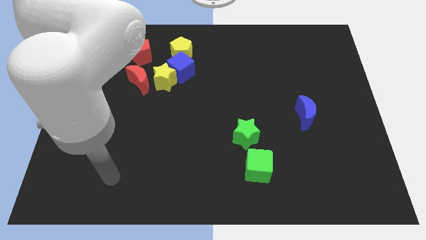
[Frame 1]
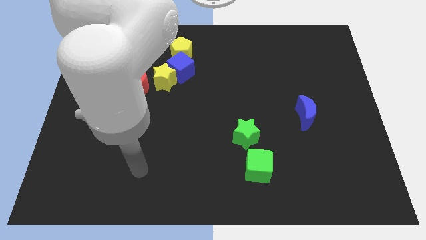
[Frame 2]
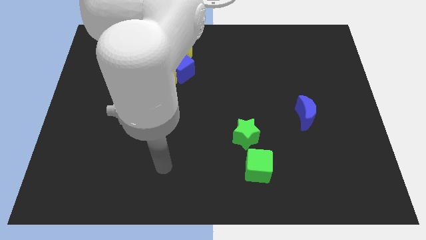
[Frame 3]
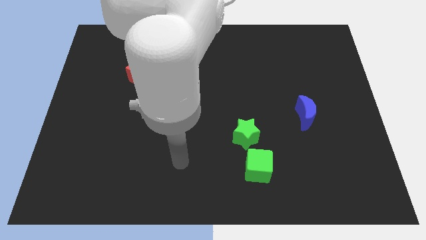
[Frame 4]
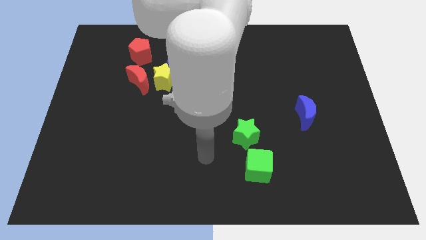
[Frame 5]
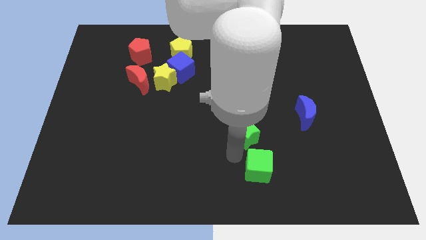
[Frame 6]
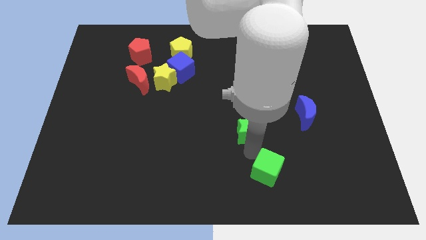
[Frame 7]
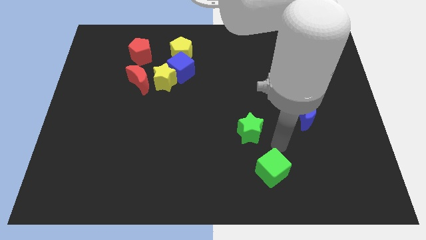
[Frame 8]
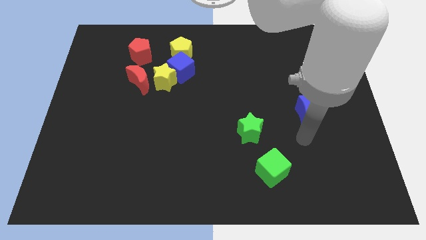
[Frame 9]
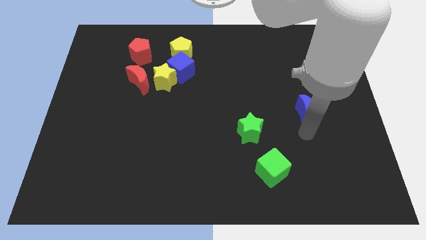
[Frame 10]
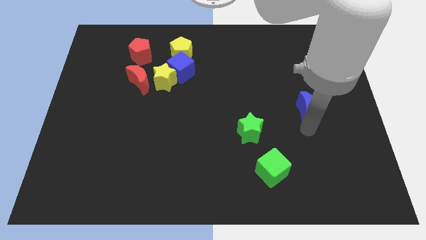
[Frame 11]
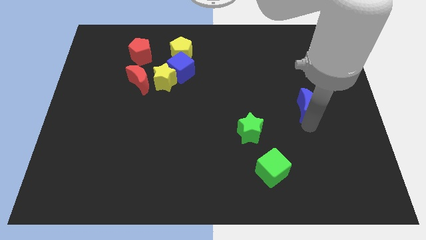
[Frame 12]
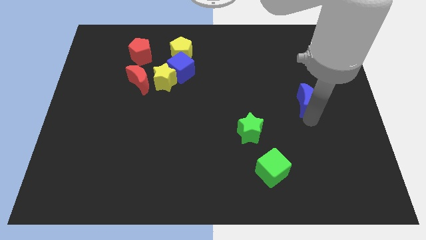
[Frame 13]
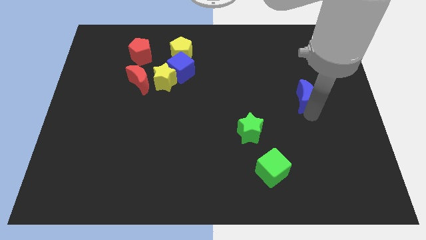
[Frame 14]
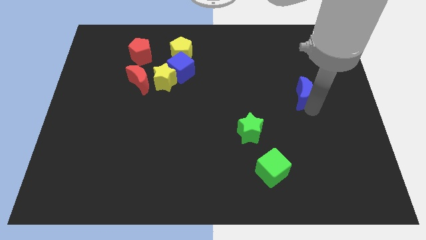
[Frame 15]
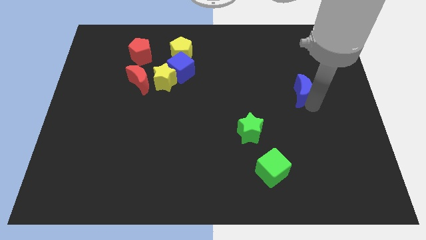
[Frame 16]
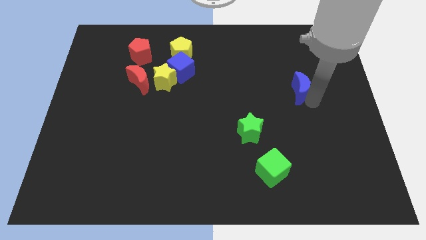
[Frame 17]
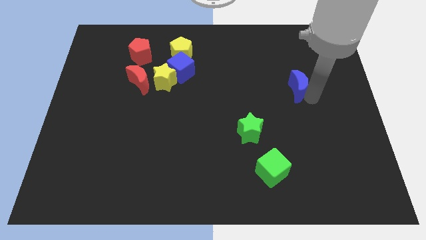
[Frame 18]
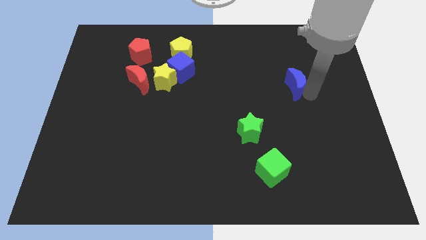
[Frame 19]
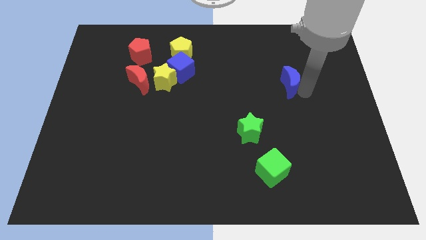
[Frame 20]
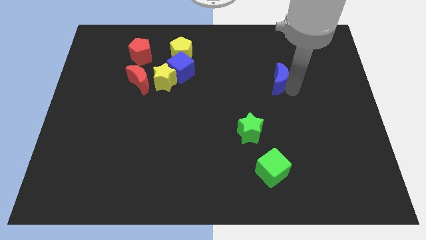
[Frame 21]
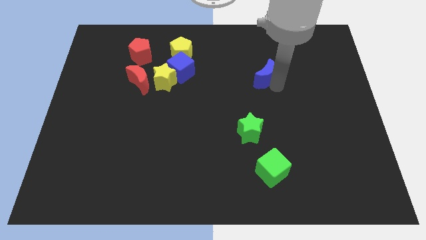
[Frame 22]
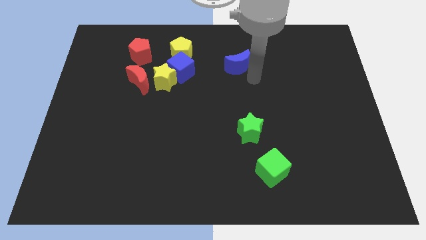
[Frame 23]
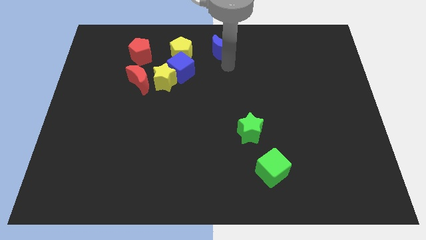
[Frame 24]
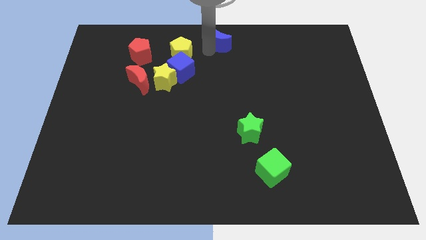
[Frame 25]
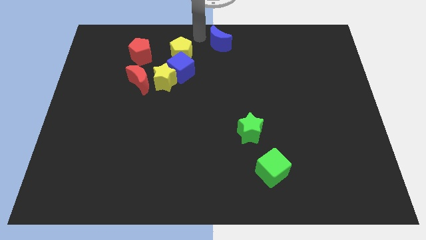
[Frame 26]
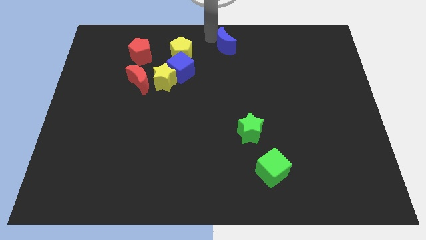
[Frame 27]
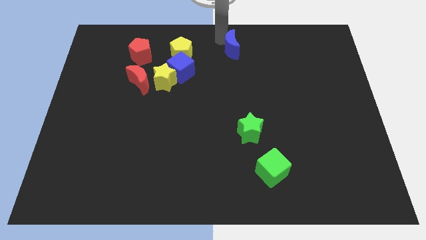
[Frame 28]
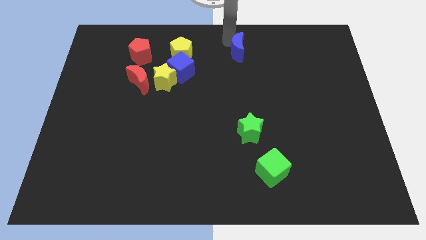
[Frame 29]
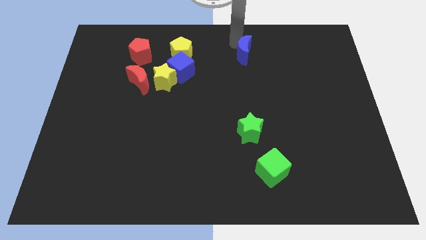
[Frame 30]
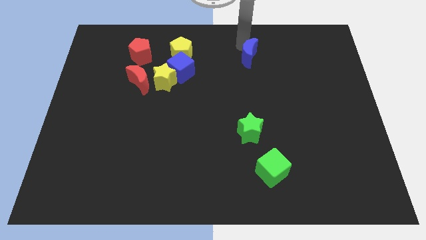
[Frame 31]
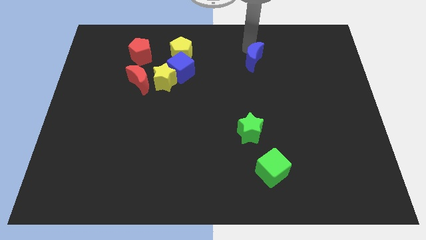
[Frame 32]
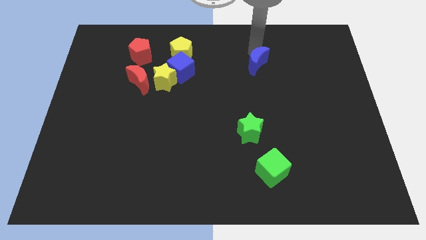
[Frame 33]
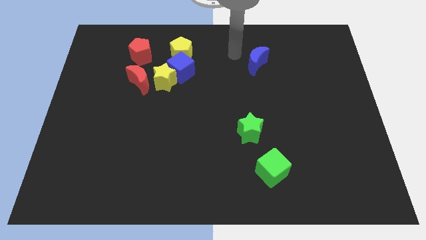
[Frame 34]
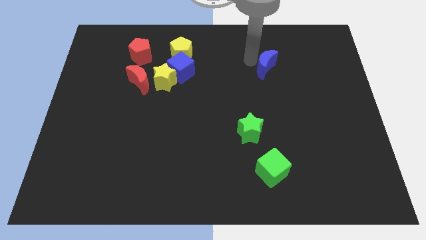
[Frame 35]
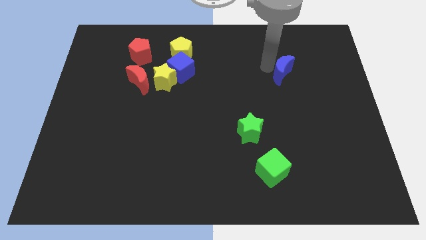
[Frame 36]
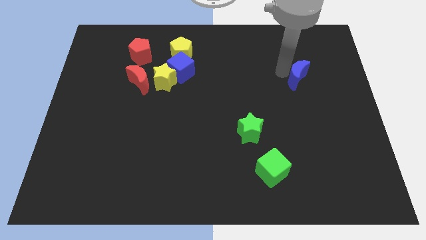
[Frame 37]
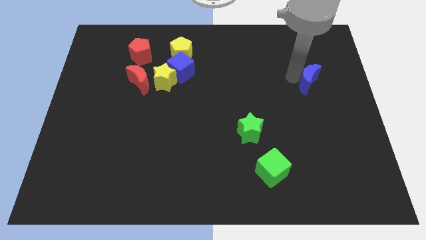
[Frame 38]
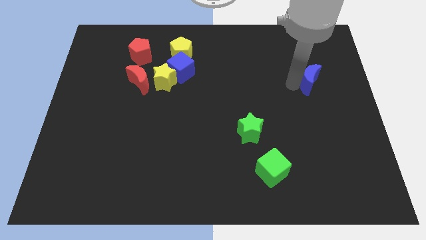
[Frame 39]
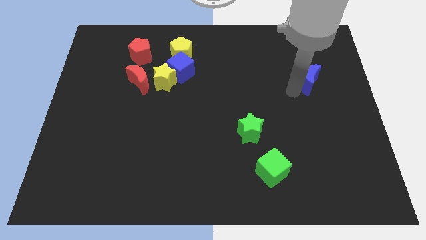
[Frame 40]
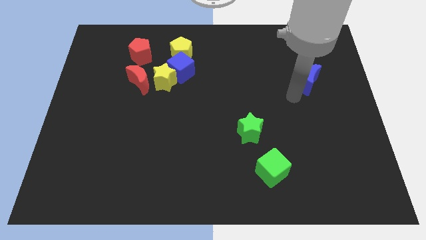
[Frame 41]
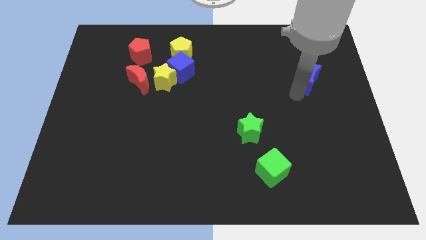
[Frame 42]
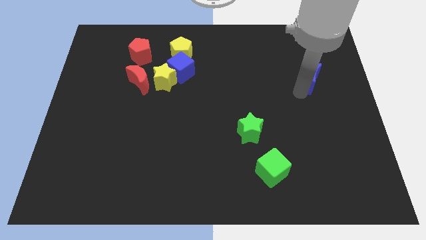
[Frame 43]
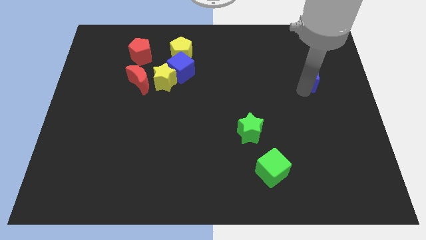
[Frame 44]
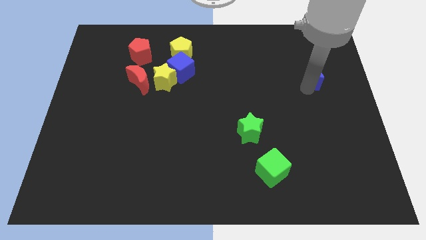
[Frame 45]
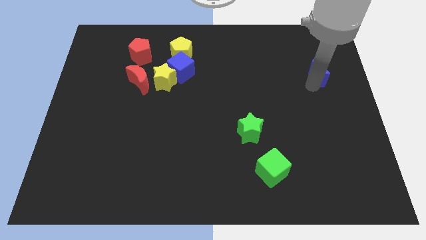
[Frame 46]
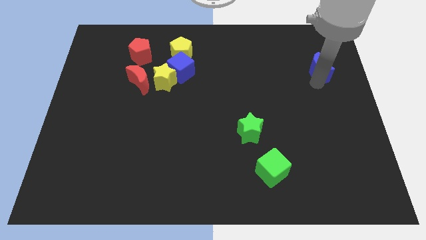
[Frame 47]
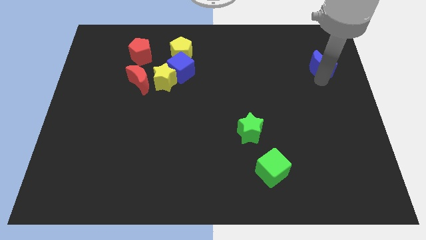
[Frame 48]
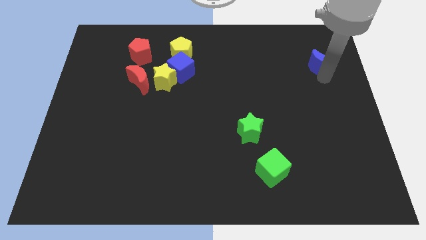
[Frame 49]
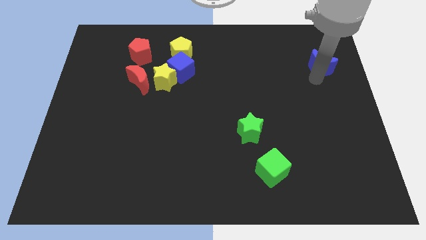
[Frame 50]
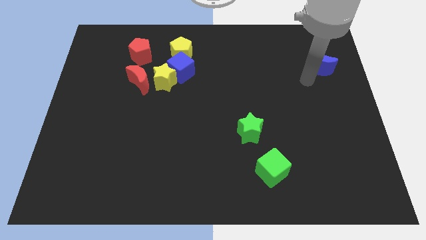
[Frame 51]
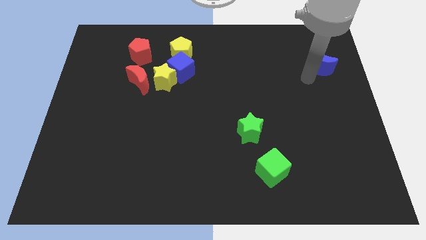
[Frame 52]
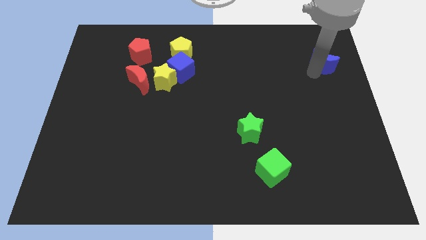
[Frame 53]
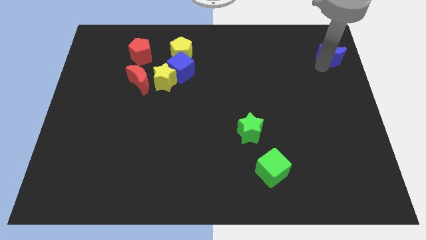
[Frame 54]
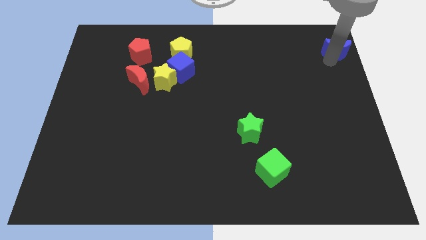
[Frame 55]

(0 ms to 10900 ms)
slide the blue moon to the upper right corner

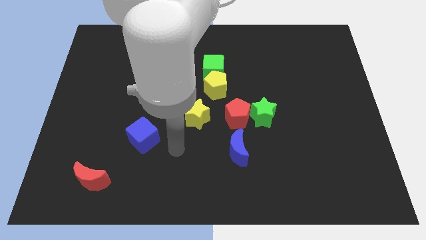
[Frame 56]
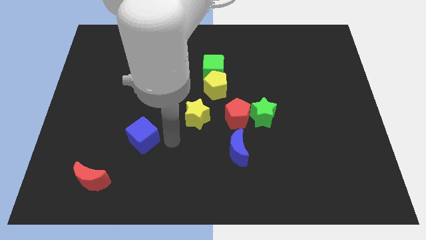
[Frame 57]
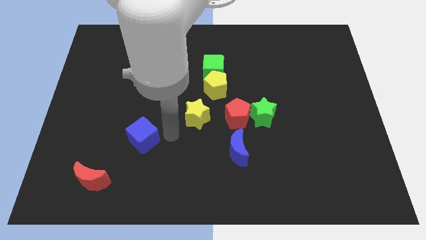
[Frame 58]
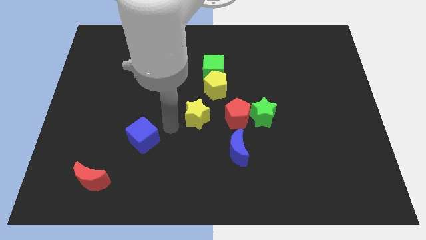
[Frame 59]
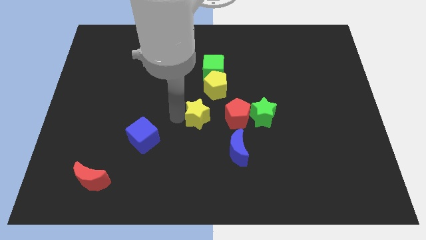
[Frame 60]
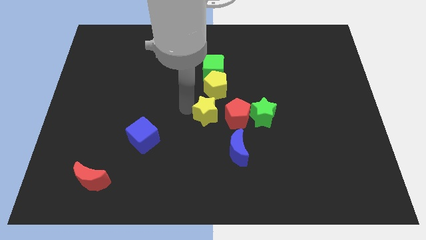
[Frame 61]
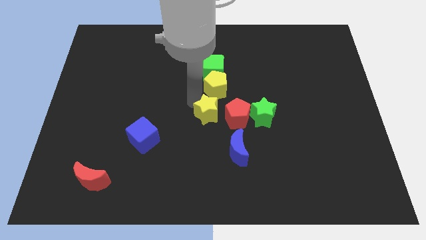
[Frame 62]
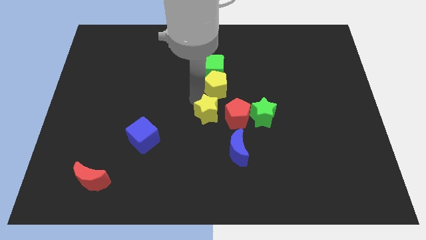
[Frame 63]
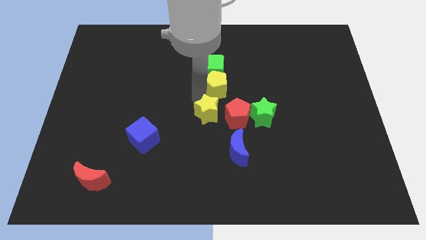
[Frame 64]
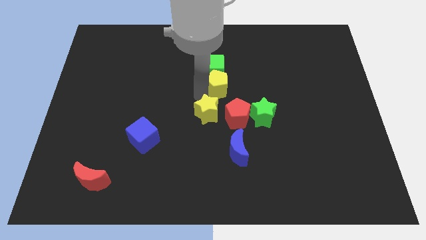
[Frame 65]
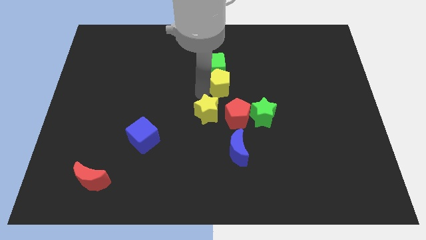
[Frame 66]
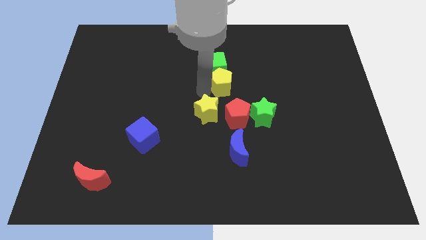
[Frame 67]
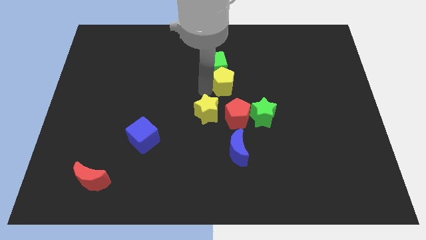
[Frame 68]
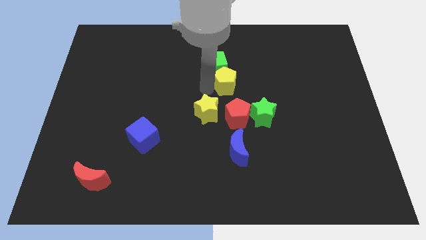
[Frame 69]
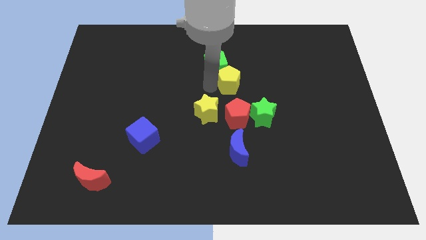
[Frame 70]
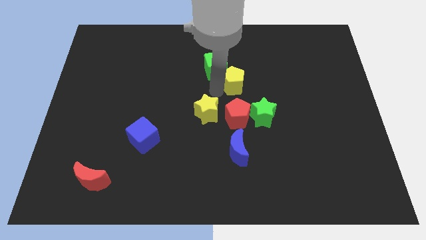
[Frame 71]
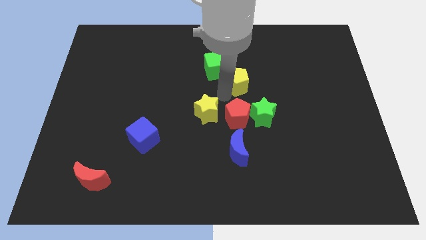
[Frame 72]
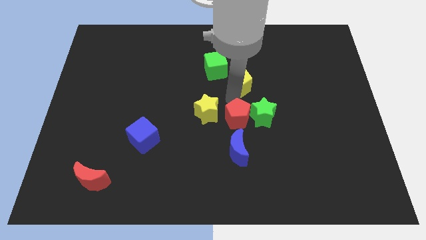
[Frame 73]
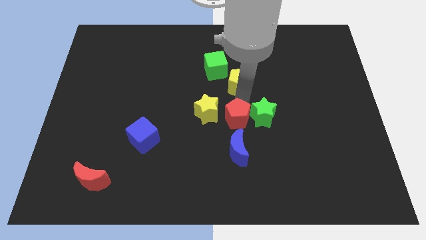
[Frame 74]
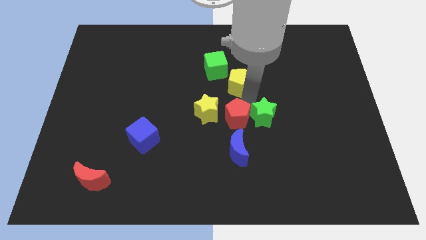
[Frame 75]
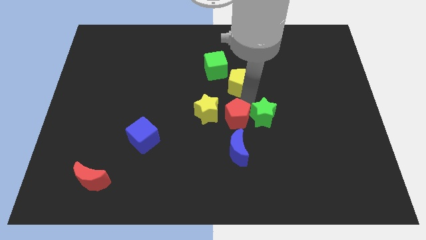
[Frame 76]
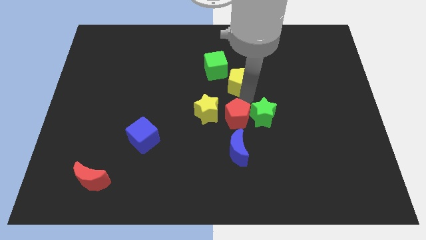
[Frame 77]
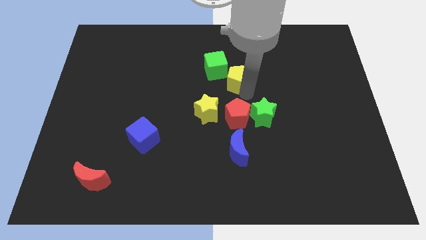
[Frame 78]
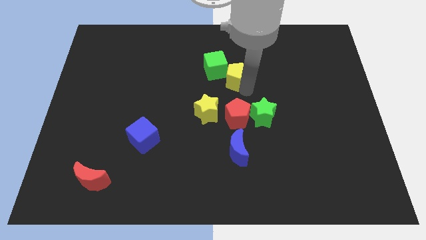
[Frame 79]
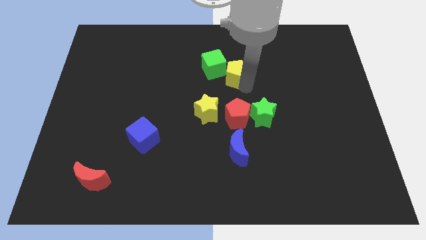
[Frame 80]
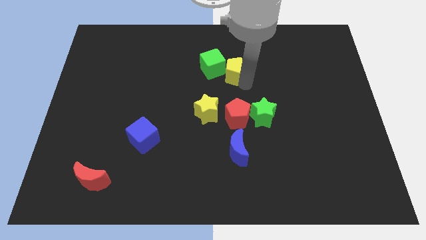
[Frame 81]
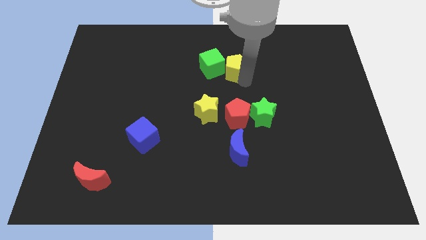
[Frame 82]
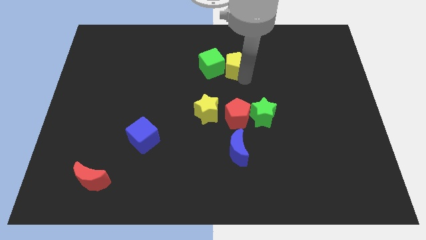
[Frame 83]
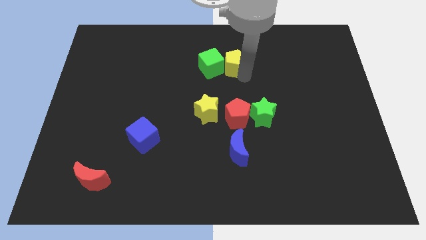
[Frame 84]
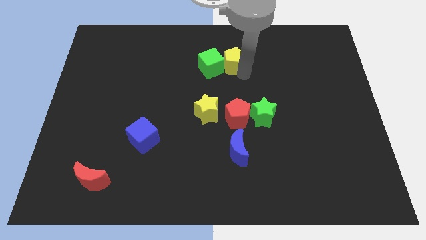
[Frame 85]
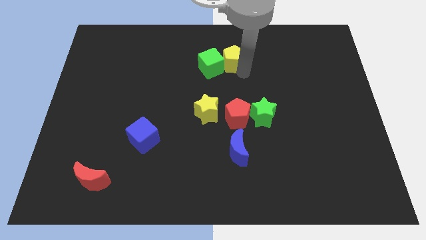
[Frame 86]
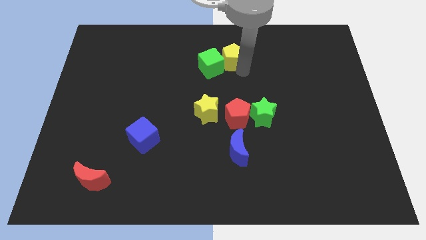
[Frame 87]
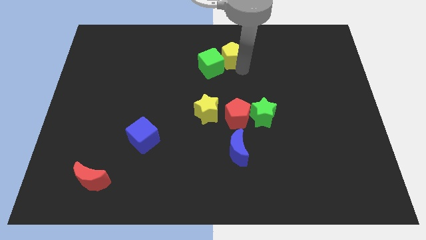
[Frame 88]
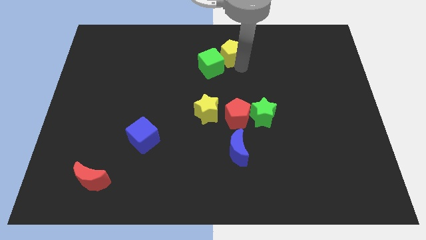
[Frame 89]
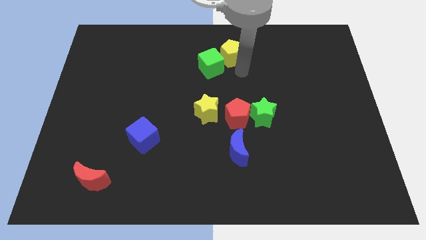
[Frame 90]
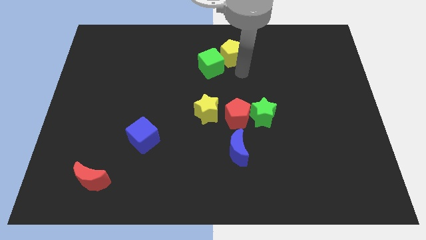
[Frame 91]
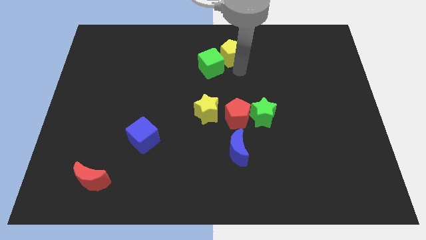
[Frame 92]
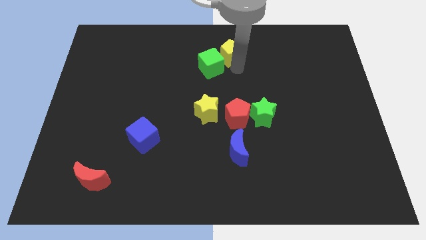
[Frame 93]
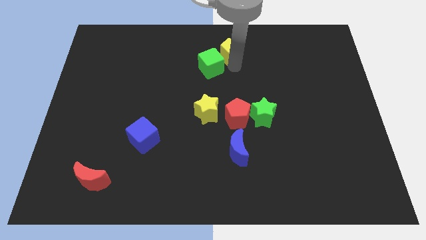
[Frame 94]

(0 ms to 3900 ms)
put the yellow pentagon to the towards your base
